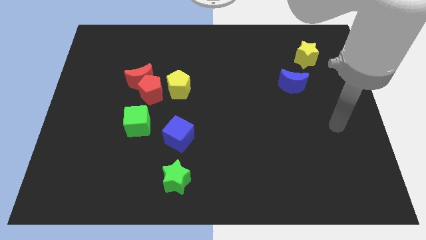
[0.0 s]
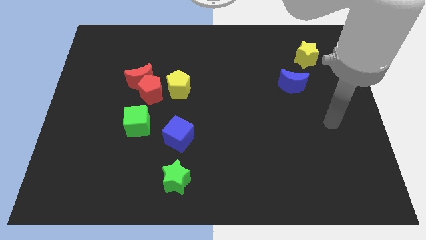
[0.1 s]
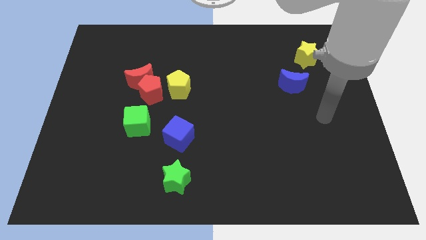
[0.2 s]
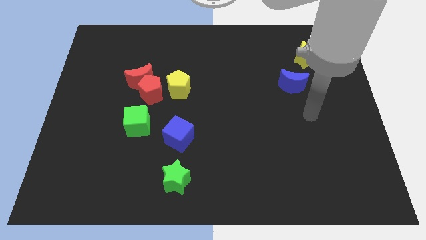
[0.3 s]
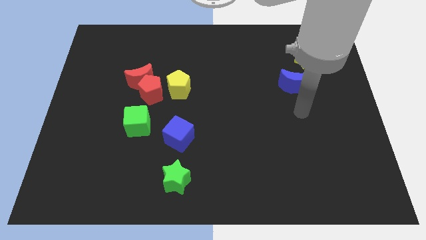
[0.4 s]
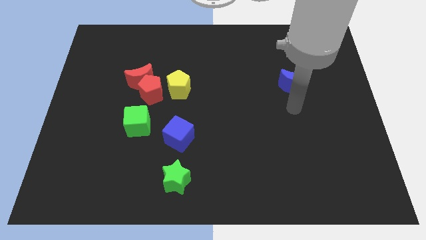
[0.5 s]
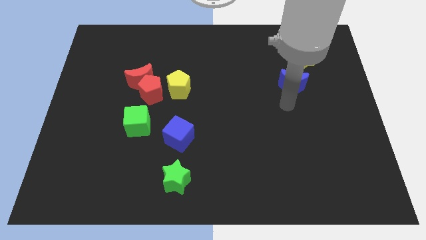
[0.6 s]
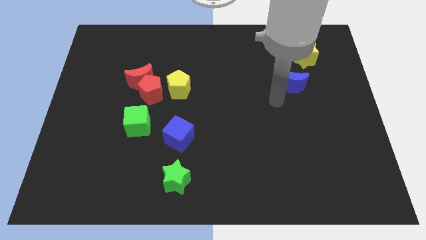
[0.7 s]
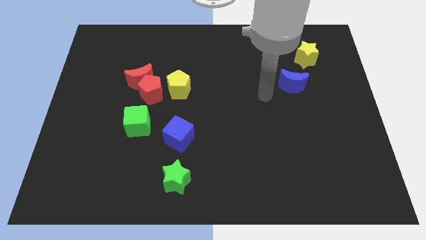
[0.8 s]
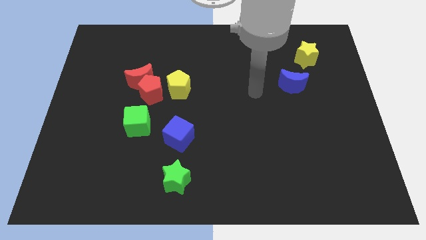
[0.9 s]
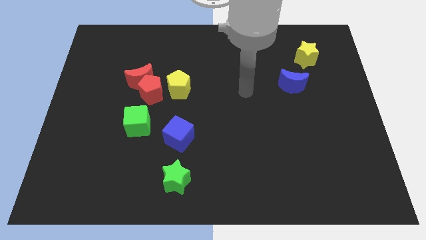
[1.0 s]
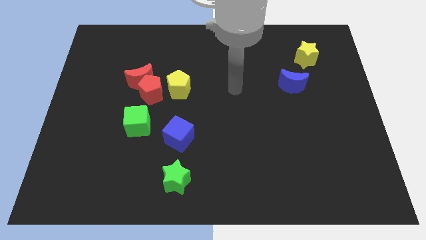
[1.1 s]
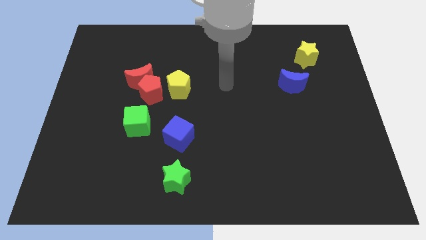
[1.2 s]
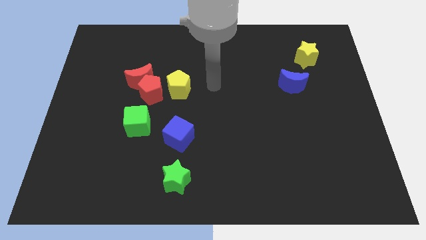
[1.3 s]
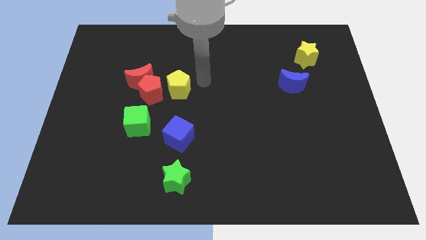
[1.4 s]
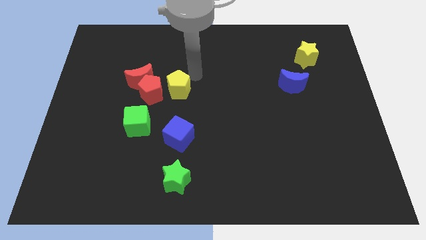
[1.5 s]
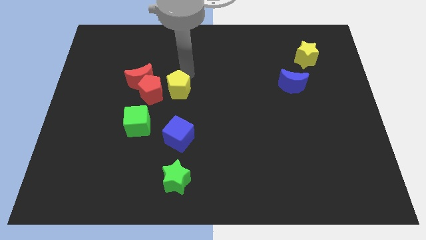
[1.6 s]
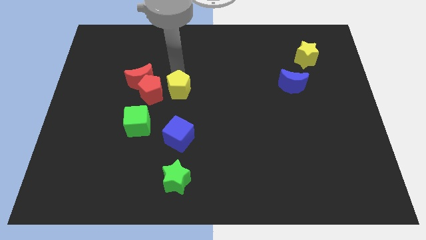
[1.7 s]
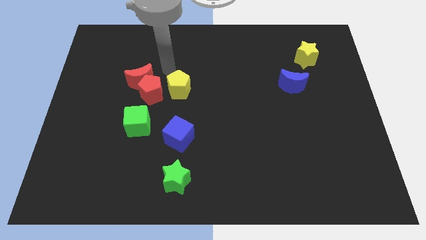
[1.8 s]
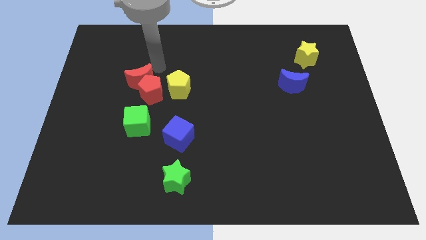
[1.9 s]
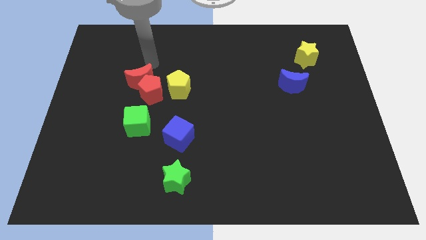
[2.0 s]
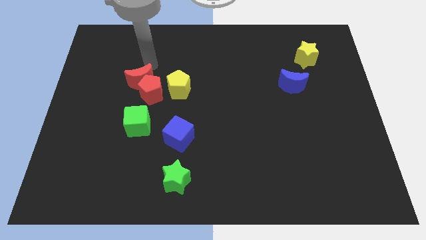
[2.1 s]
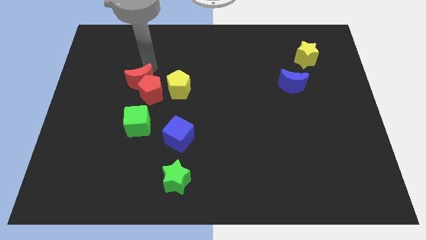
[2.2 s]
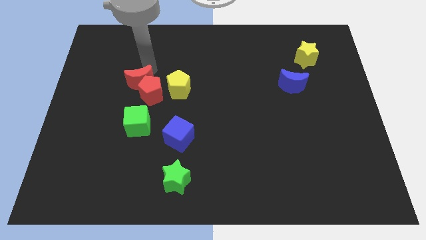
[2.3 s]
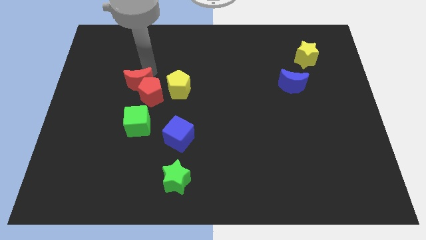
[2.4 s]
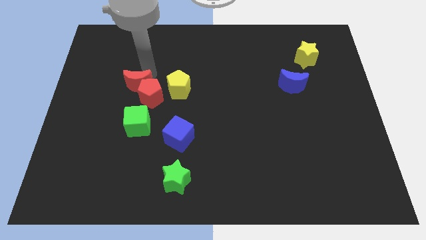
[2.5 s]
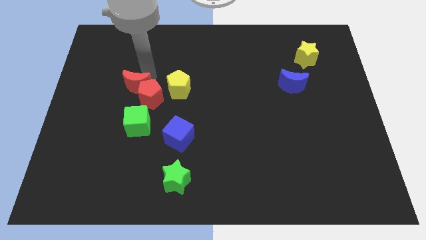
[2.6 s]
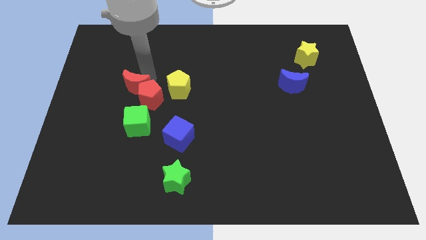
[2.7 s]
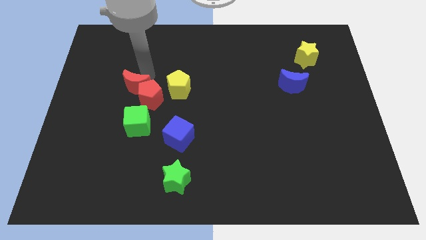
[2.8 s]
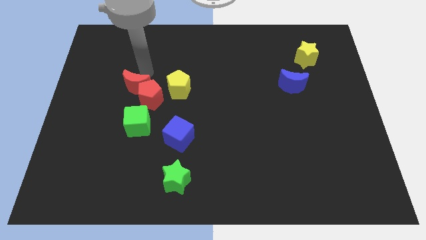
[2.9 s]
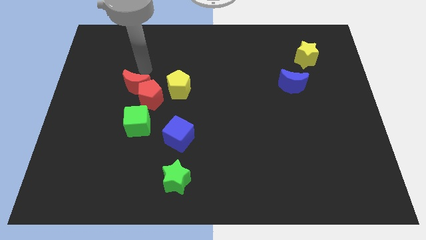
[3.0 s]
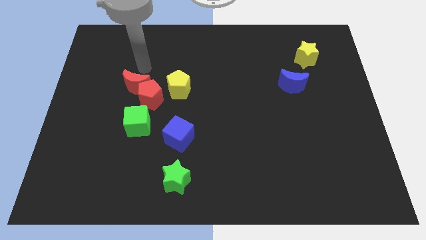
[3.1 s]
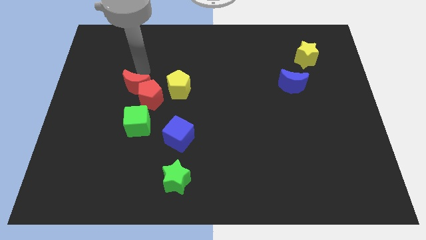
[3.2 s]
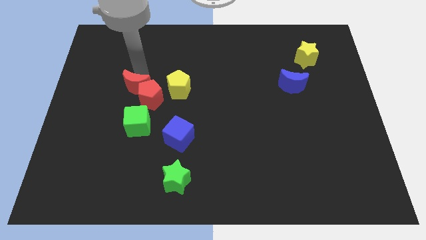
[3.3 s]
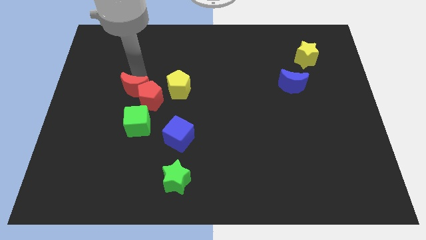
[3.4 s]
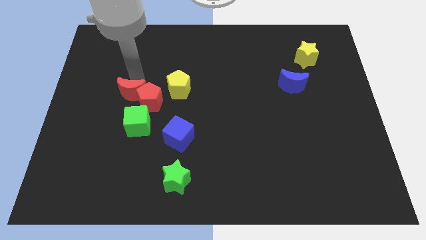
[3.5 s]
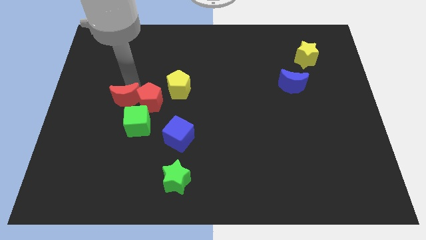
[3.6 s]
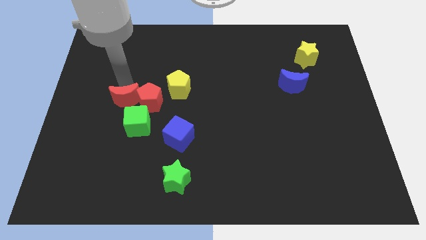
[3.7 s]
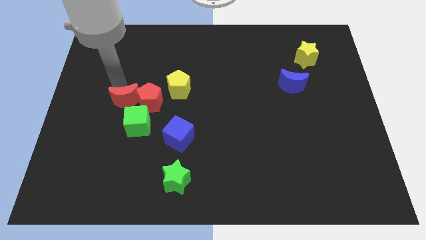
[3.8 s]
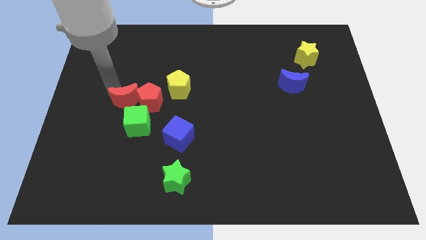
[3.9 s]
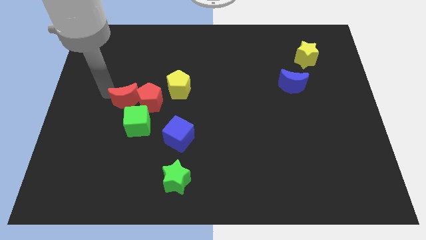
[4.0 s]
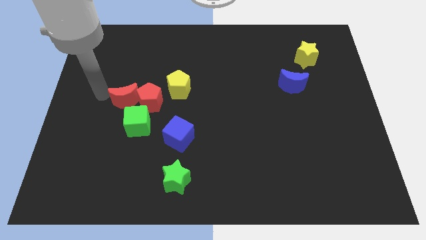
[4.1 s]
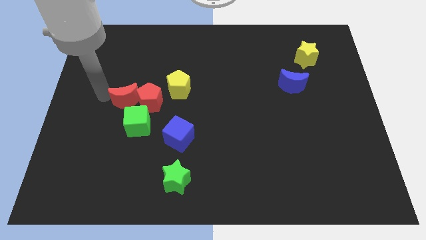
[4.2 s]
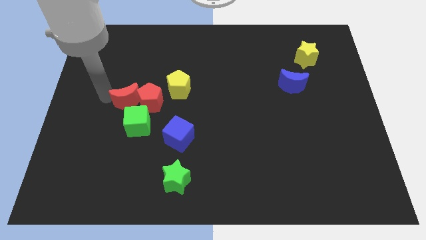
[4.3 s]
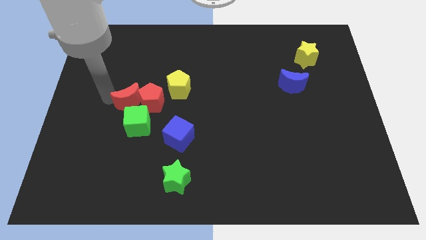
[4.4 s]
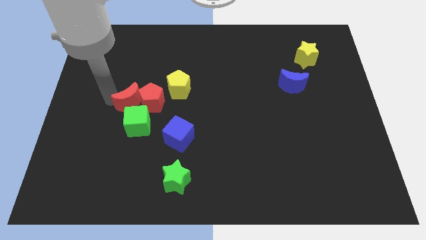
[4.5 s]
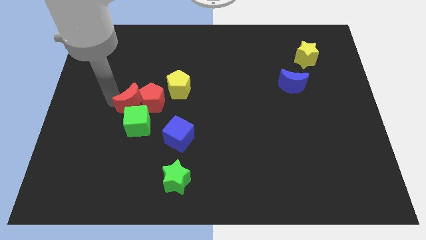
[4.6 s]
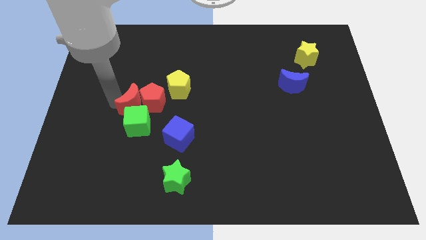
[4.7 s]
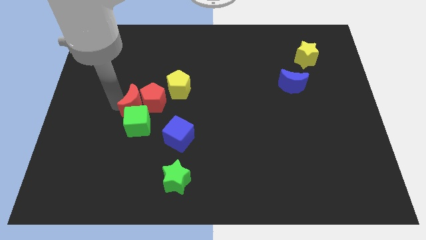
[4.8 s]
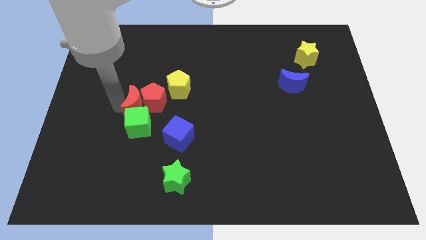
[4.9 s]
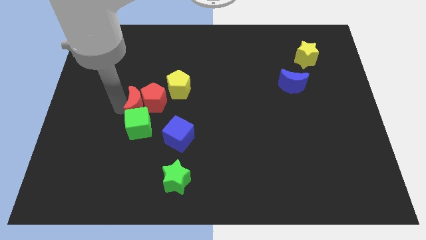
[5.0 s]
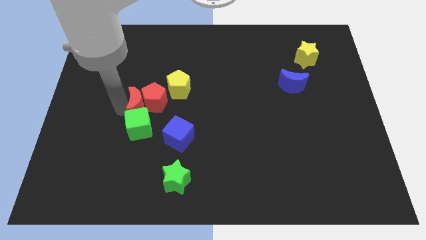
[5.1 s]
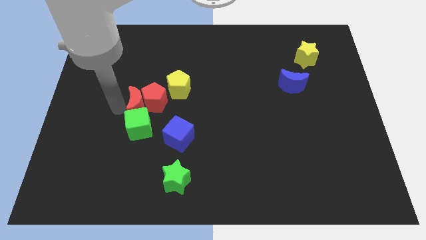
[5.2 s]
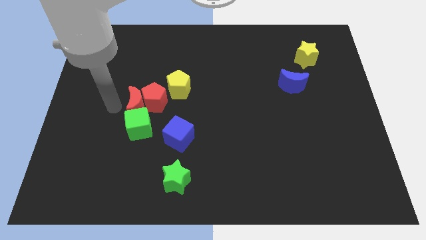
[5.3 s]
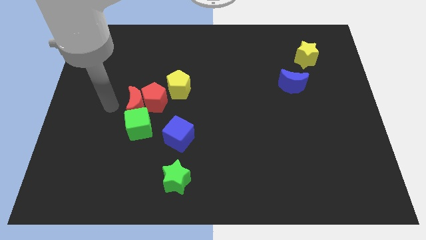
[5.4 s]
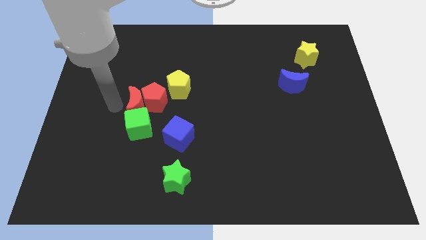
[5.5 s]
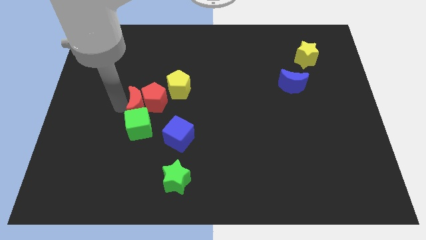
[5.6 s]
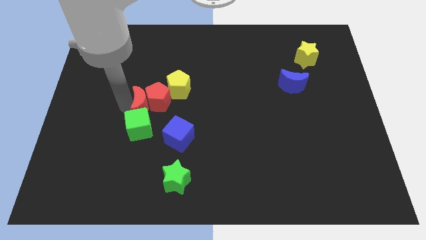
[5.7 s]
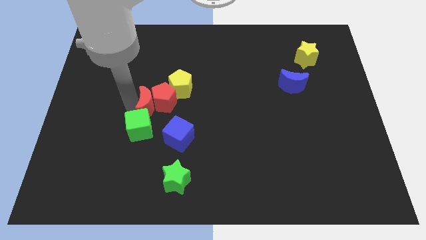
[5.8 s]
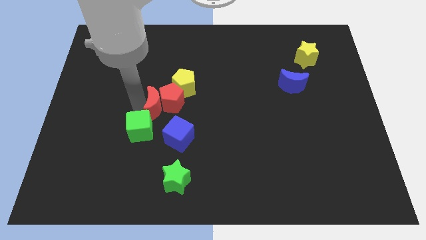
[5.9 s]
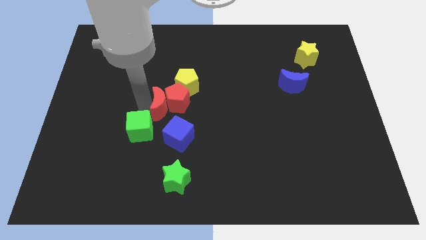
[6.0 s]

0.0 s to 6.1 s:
slide the red moon to the middle of the board

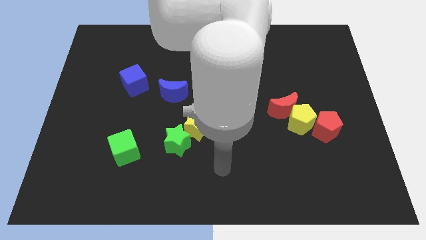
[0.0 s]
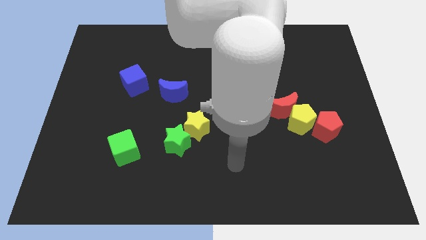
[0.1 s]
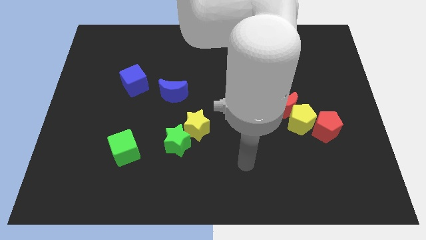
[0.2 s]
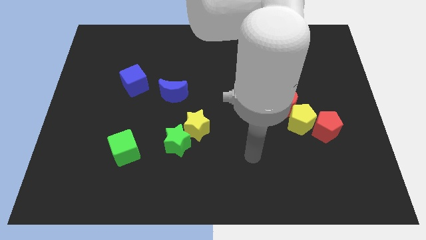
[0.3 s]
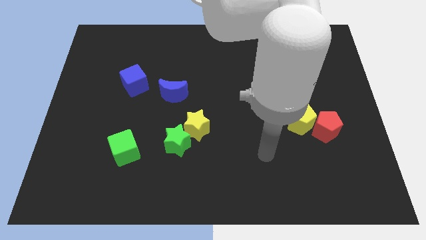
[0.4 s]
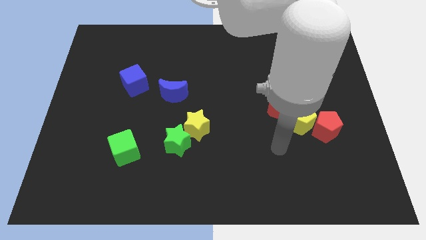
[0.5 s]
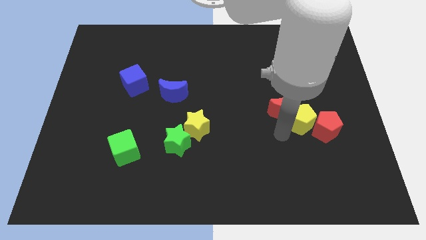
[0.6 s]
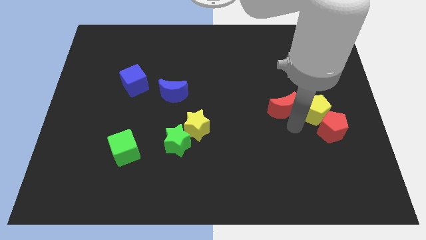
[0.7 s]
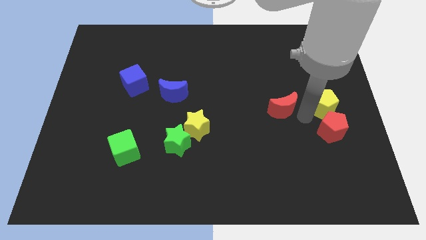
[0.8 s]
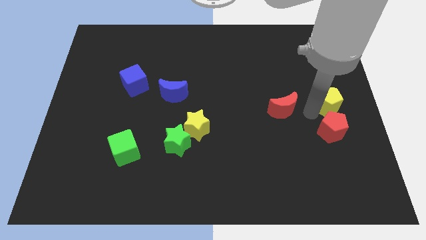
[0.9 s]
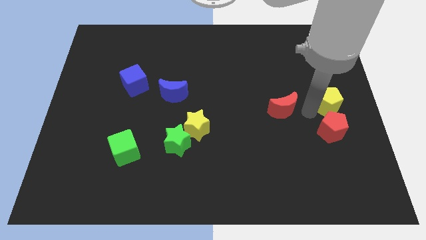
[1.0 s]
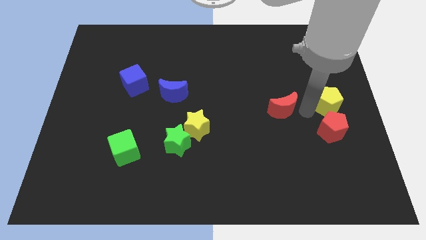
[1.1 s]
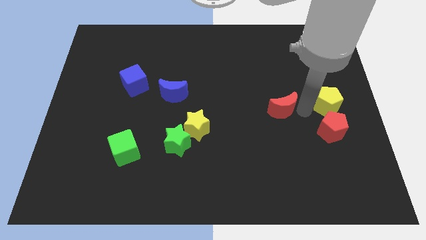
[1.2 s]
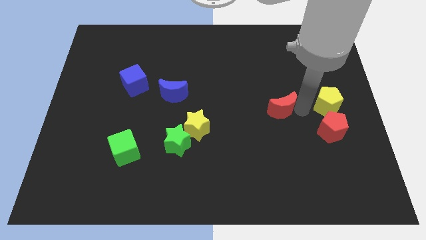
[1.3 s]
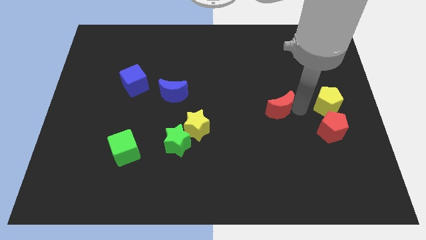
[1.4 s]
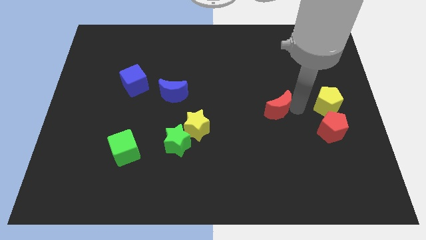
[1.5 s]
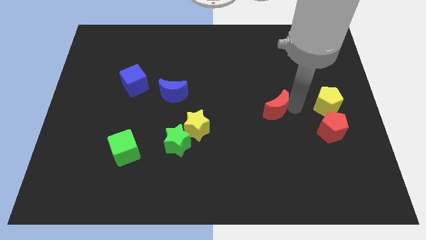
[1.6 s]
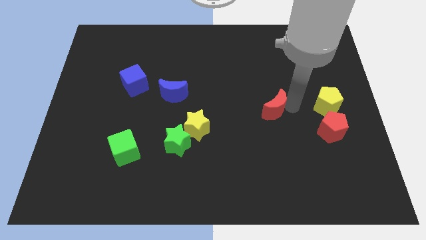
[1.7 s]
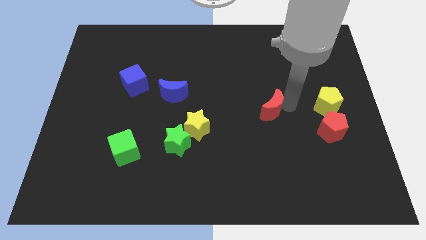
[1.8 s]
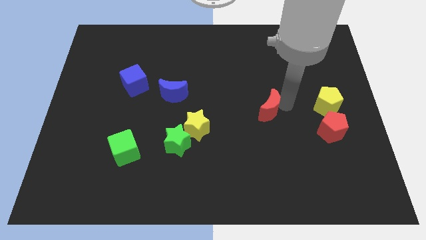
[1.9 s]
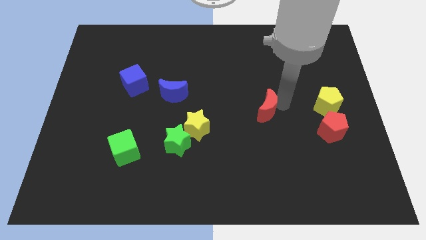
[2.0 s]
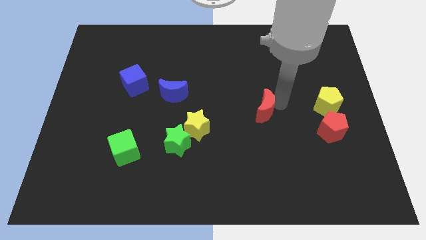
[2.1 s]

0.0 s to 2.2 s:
move the red moon to the middle
